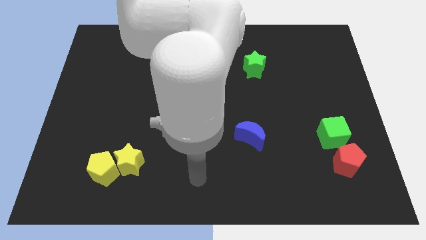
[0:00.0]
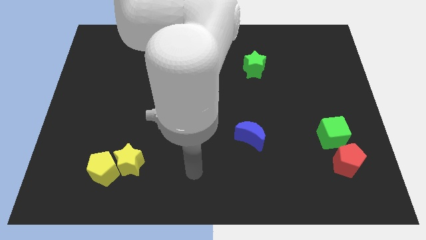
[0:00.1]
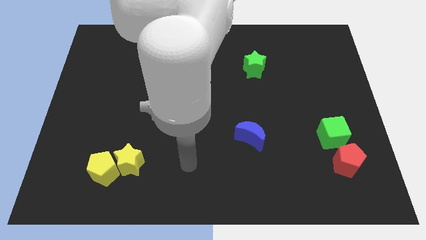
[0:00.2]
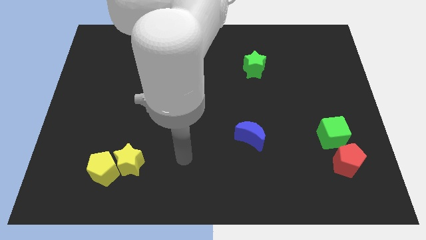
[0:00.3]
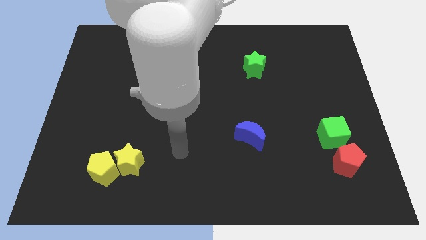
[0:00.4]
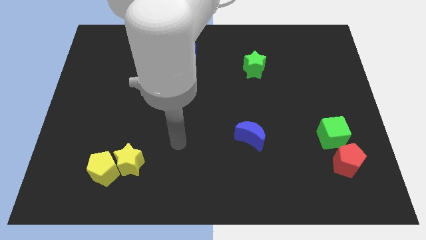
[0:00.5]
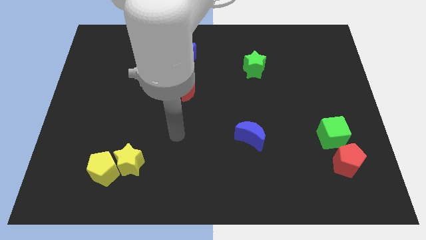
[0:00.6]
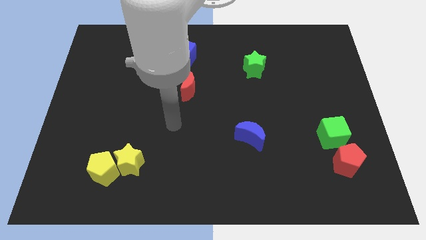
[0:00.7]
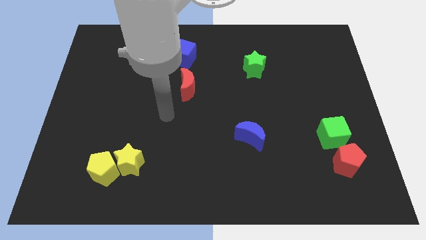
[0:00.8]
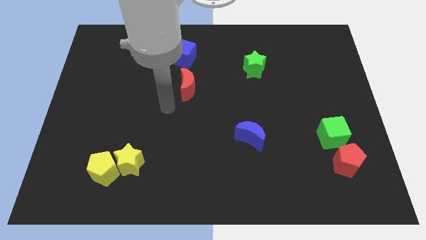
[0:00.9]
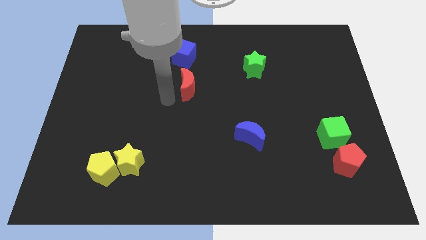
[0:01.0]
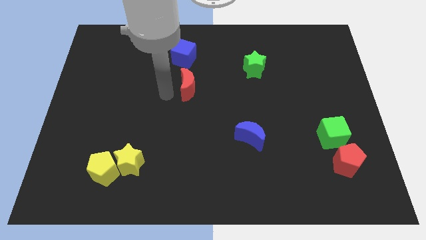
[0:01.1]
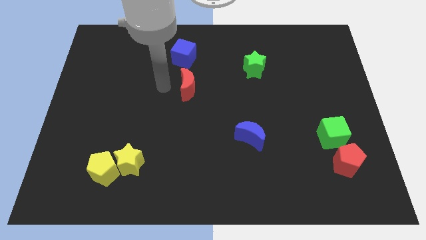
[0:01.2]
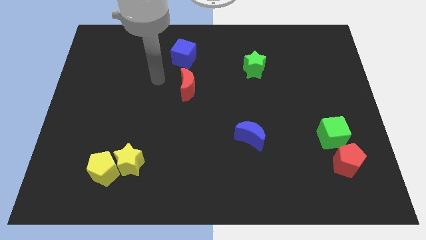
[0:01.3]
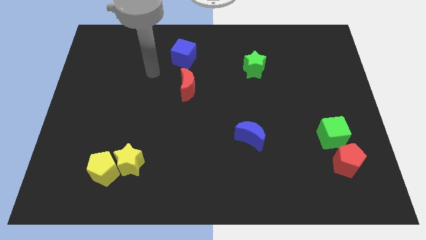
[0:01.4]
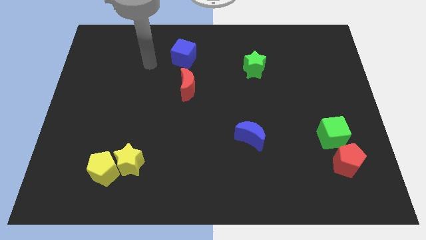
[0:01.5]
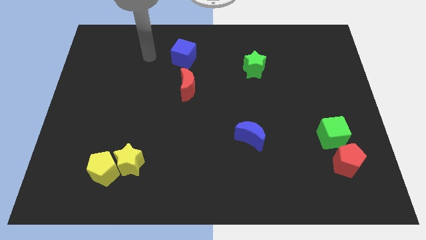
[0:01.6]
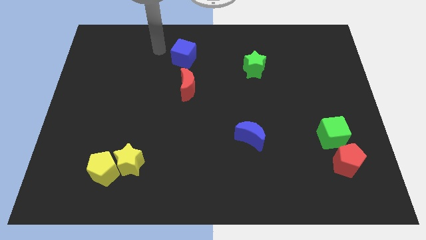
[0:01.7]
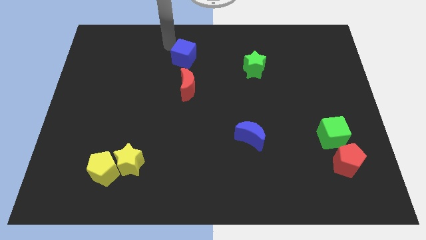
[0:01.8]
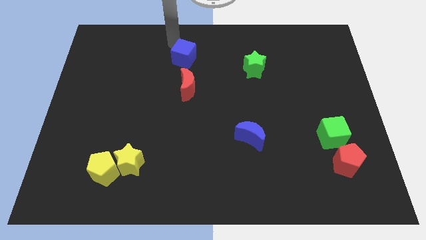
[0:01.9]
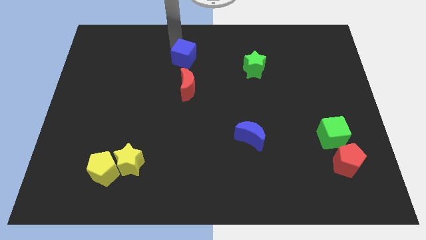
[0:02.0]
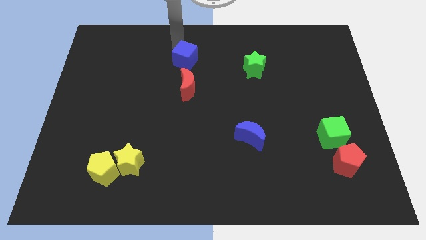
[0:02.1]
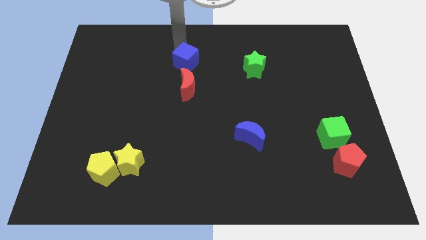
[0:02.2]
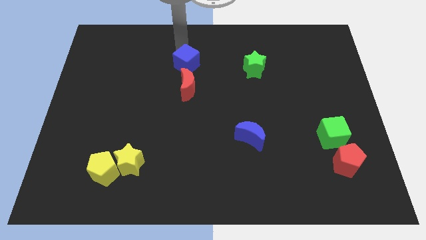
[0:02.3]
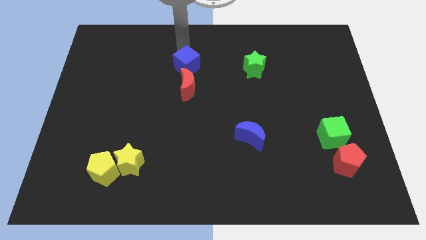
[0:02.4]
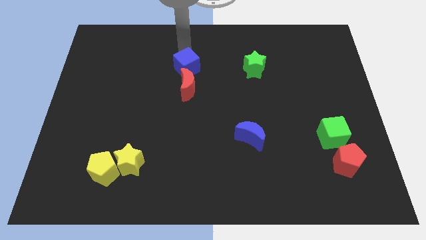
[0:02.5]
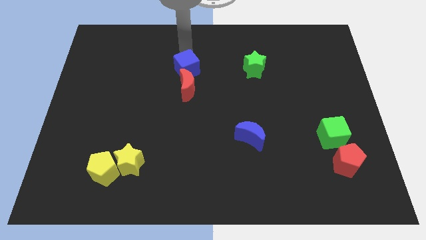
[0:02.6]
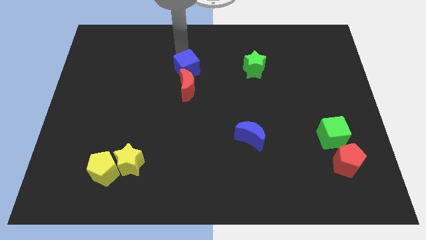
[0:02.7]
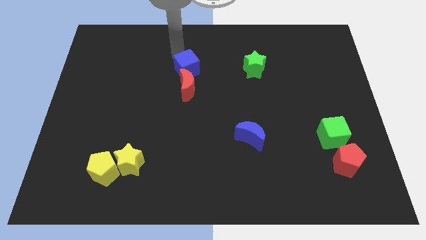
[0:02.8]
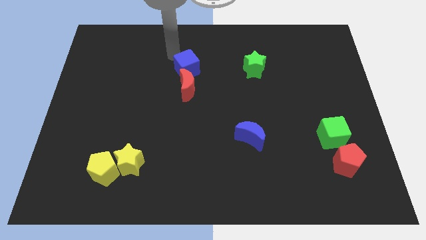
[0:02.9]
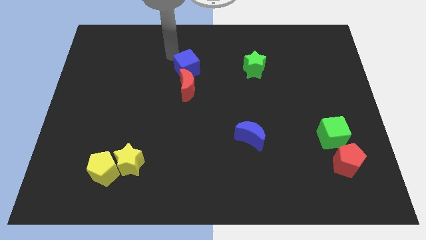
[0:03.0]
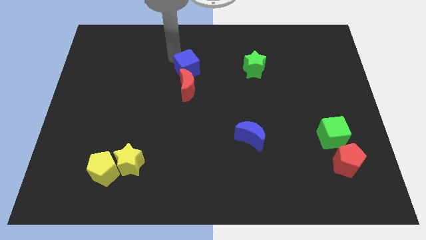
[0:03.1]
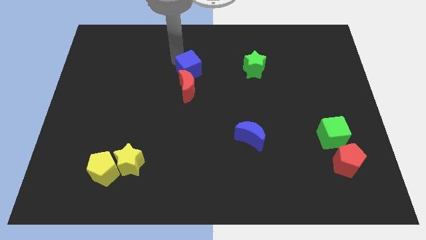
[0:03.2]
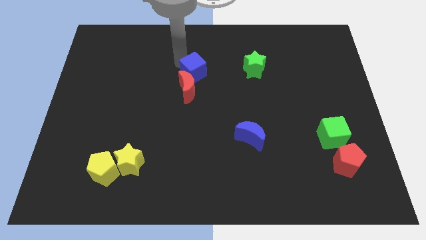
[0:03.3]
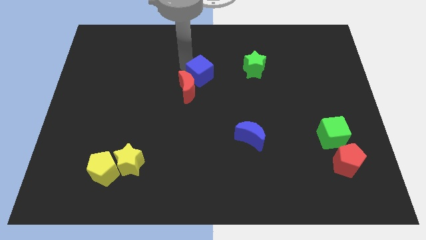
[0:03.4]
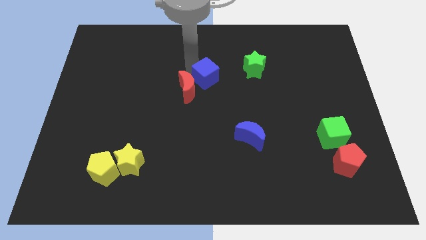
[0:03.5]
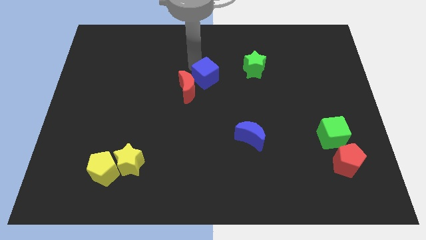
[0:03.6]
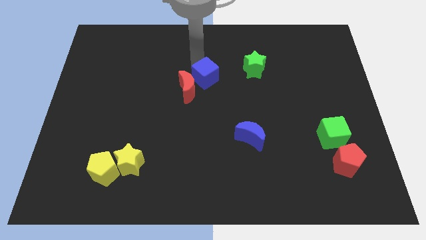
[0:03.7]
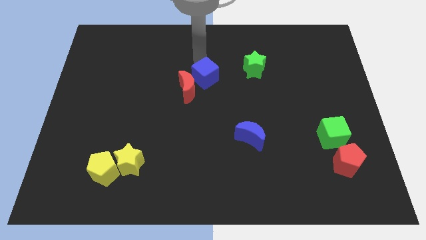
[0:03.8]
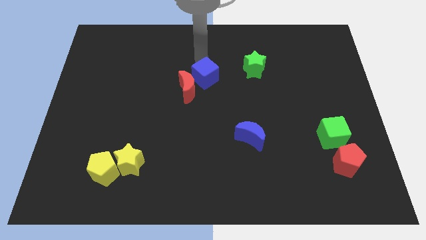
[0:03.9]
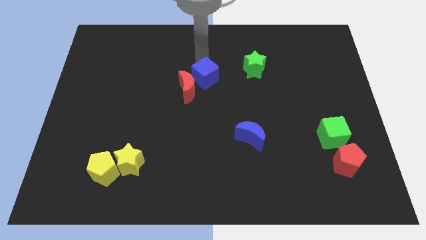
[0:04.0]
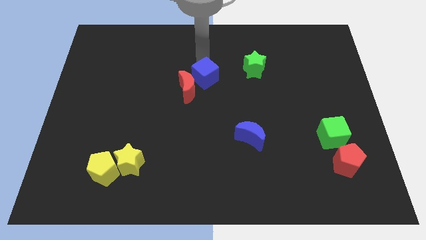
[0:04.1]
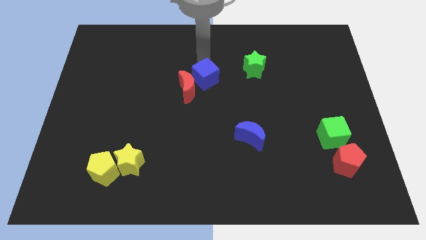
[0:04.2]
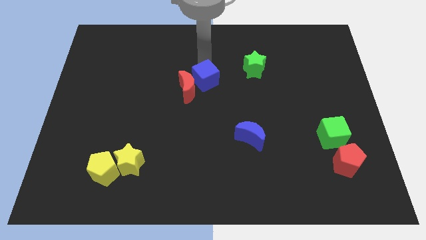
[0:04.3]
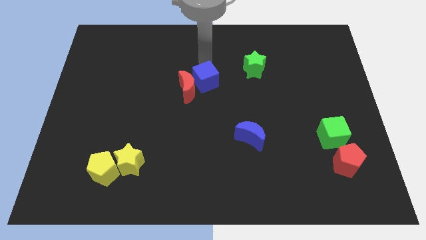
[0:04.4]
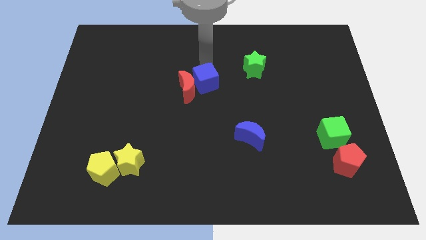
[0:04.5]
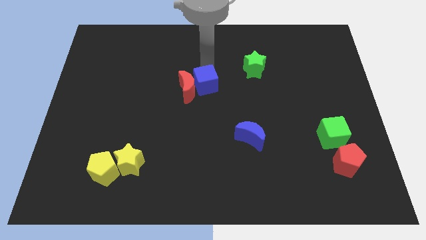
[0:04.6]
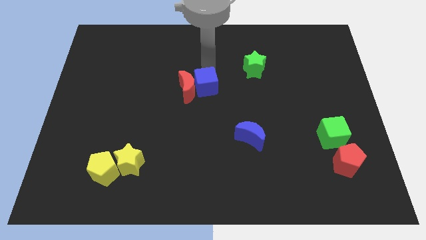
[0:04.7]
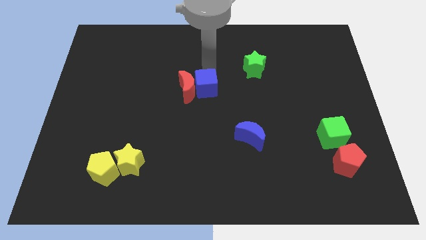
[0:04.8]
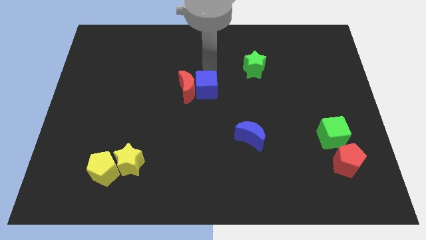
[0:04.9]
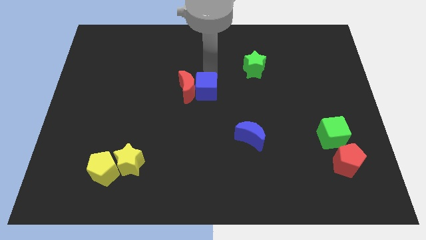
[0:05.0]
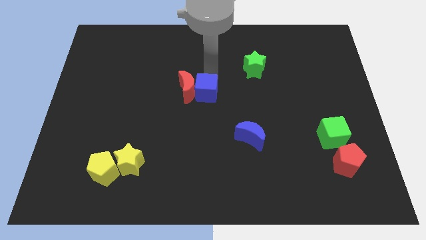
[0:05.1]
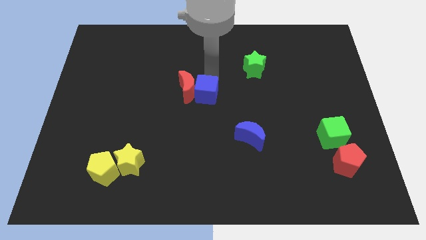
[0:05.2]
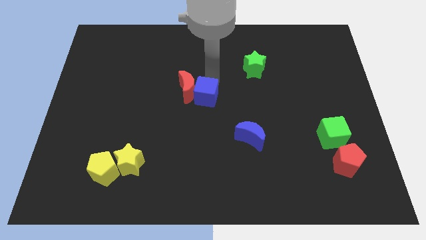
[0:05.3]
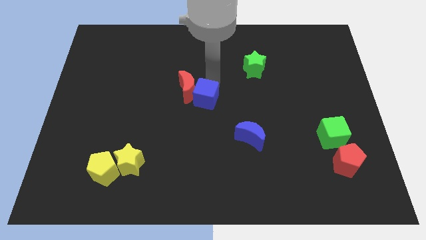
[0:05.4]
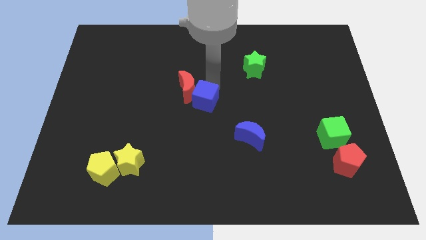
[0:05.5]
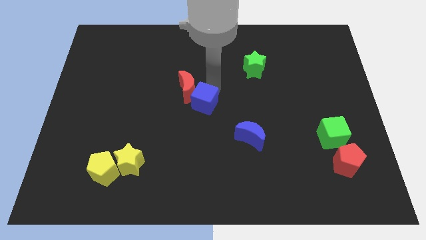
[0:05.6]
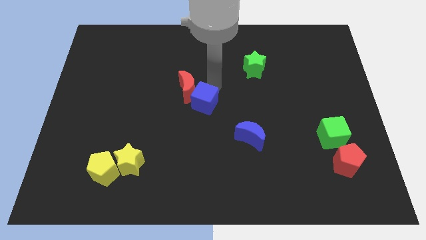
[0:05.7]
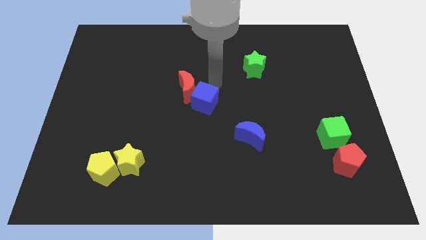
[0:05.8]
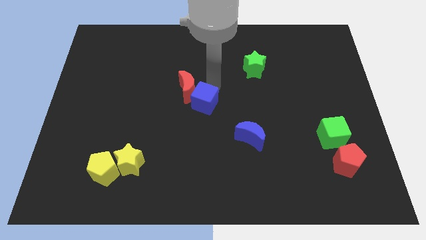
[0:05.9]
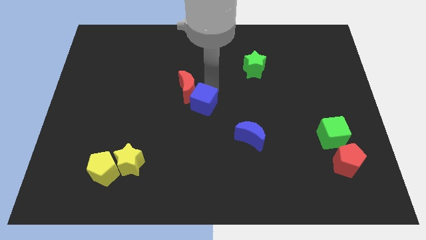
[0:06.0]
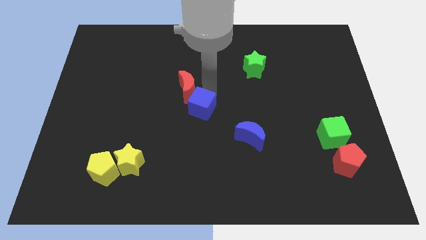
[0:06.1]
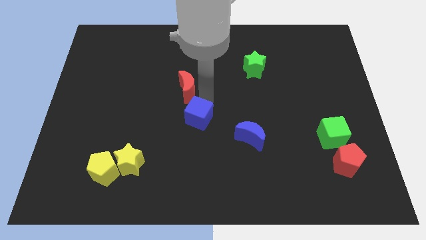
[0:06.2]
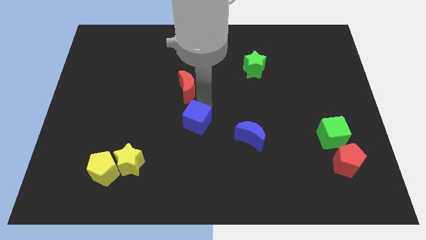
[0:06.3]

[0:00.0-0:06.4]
move the blue cube downwards

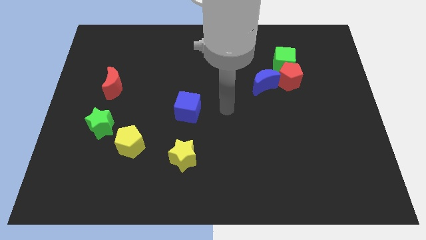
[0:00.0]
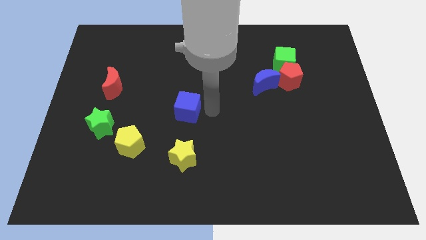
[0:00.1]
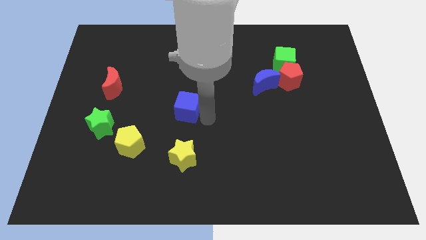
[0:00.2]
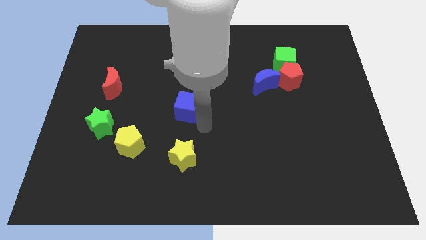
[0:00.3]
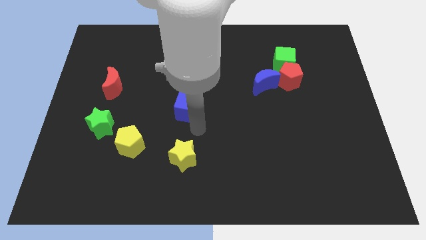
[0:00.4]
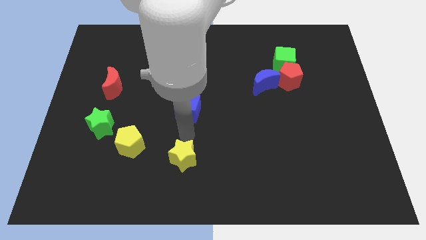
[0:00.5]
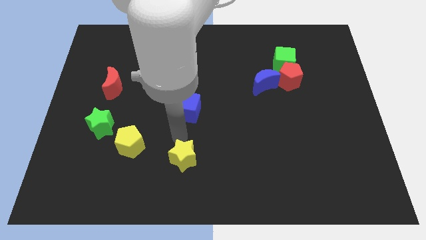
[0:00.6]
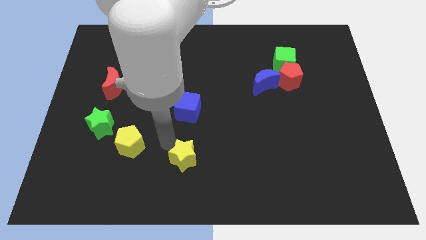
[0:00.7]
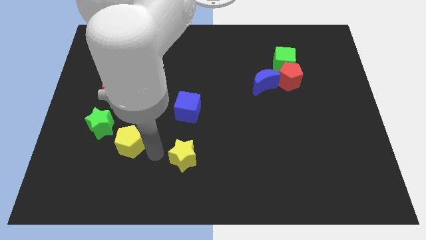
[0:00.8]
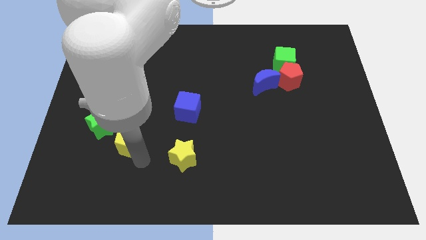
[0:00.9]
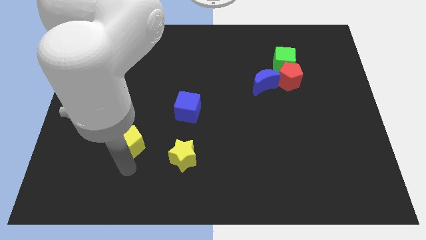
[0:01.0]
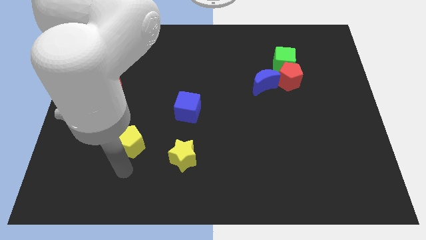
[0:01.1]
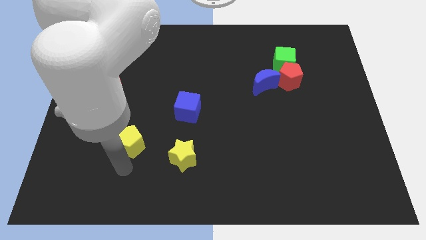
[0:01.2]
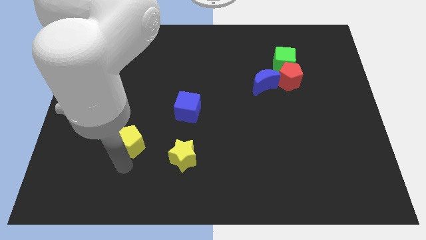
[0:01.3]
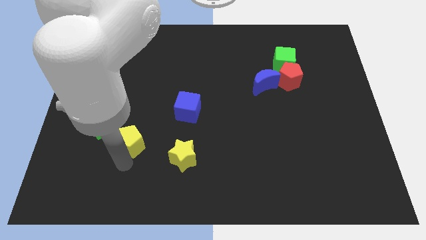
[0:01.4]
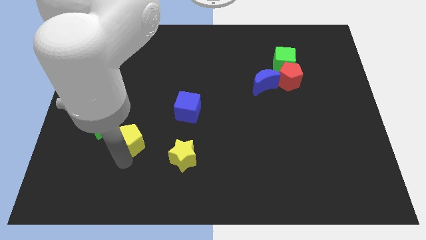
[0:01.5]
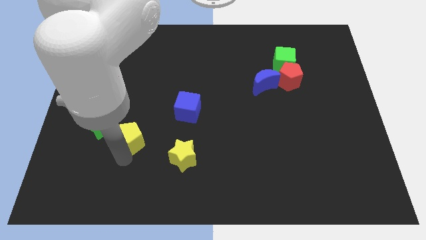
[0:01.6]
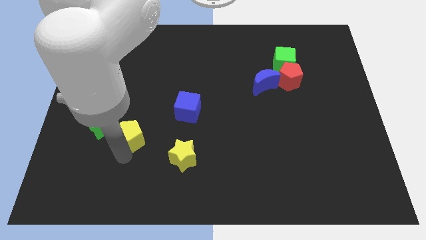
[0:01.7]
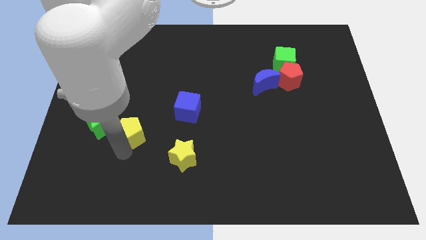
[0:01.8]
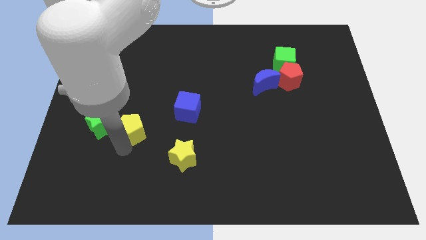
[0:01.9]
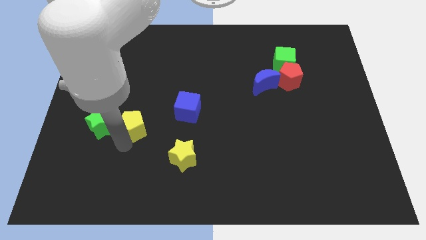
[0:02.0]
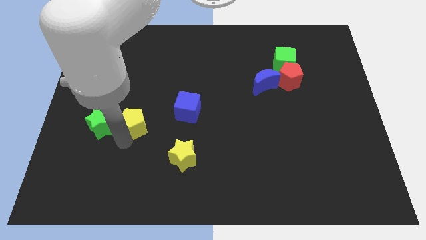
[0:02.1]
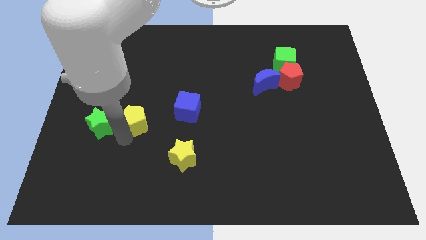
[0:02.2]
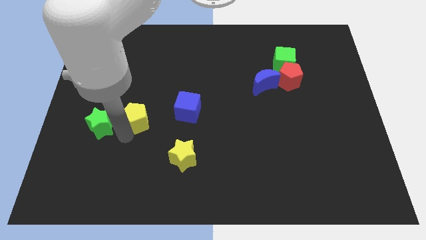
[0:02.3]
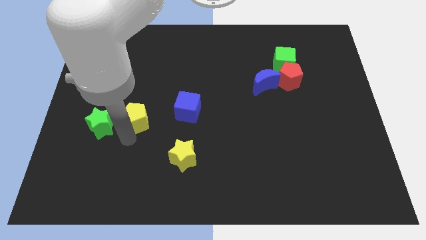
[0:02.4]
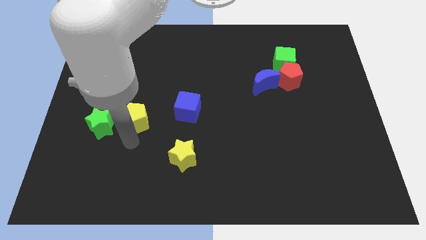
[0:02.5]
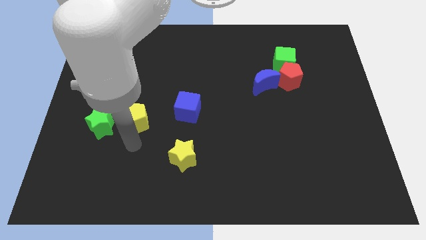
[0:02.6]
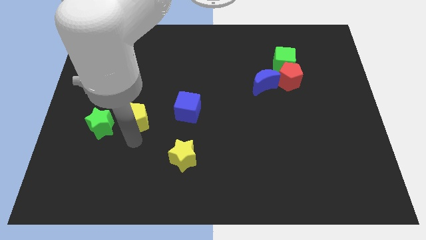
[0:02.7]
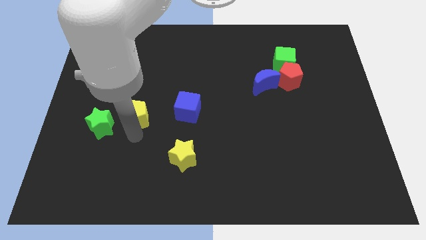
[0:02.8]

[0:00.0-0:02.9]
slightly push the yellow pentagon upwards
